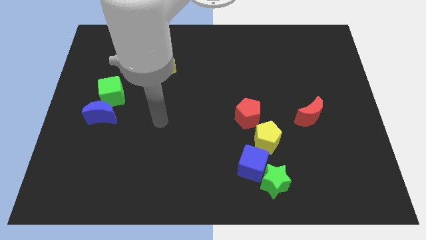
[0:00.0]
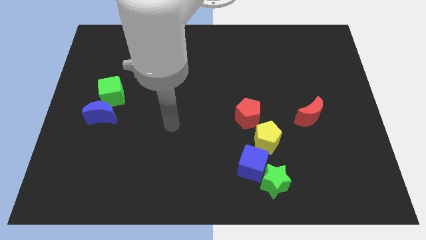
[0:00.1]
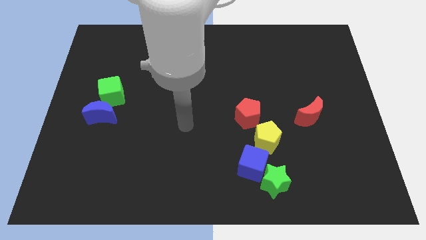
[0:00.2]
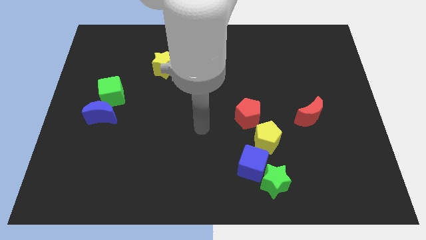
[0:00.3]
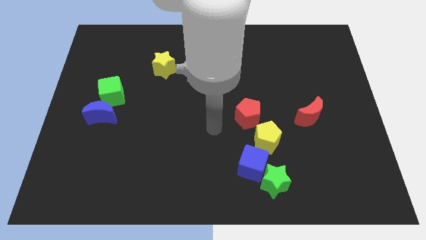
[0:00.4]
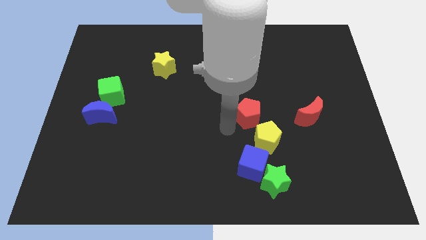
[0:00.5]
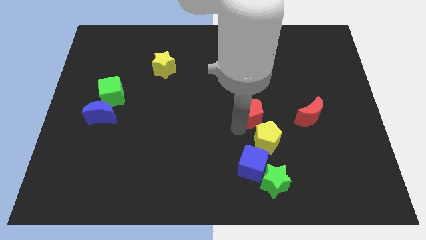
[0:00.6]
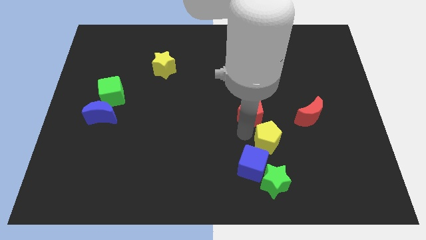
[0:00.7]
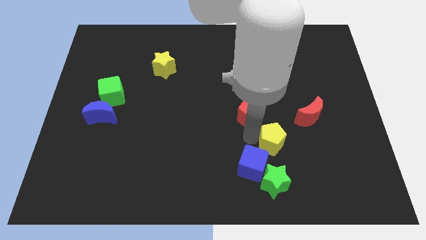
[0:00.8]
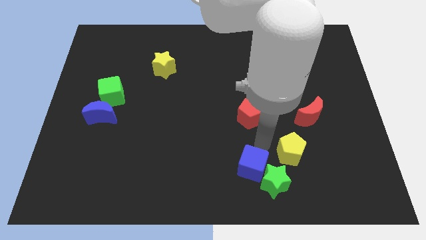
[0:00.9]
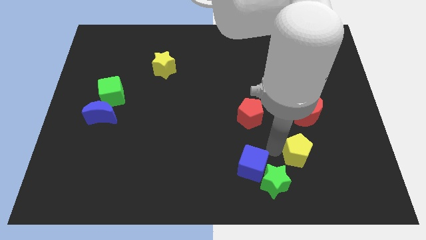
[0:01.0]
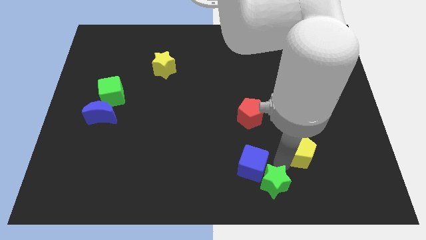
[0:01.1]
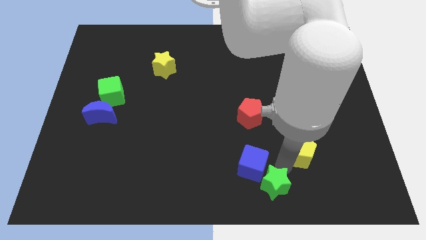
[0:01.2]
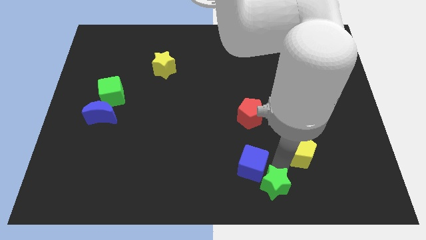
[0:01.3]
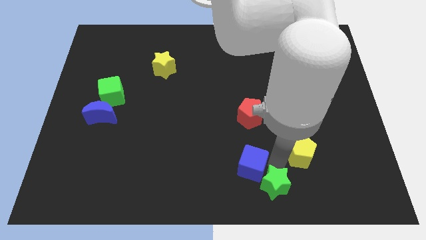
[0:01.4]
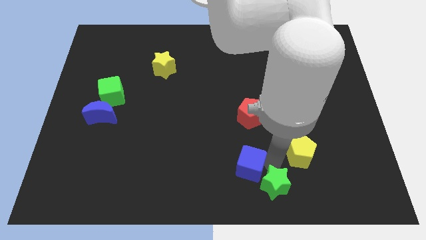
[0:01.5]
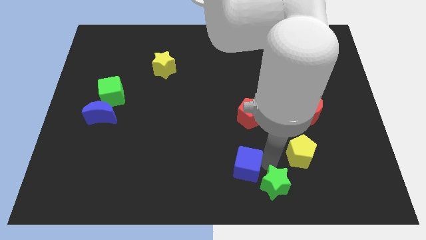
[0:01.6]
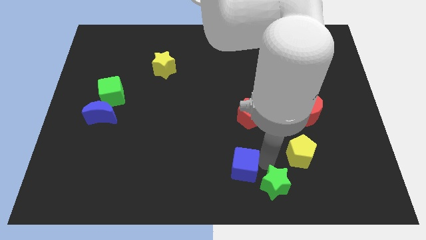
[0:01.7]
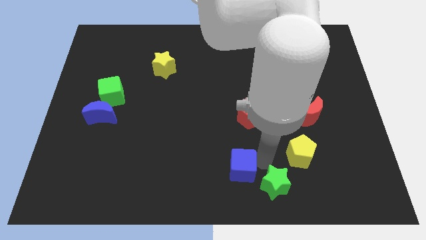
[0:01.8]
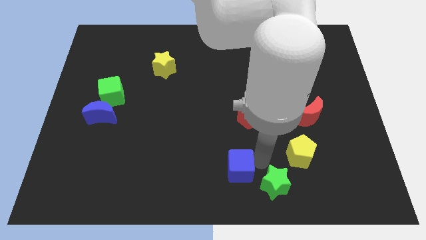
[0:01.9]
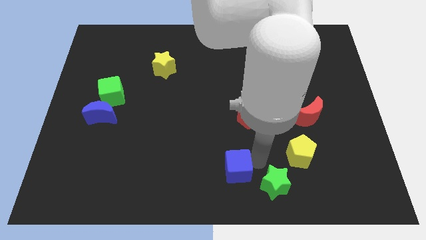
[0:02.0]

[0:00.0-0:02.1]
separate the blue cube from the green star and yellow pentagon

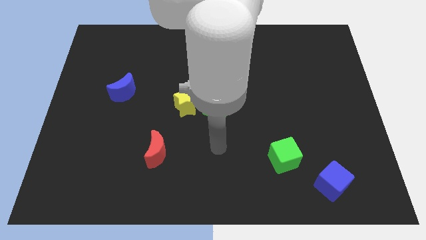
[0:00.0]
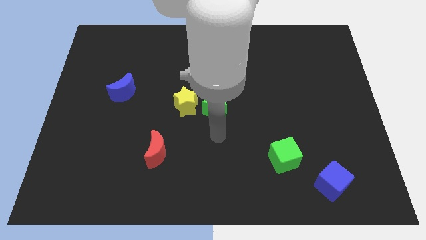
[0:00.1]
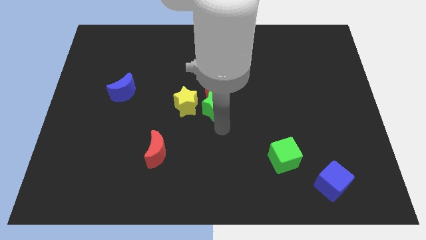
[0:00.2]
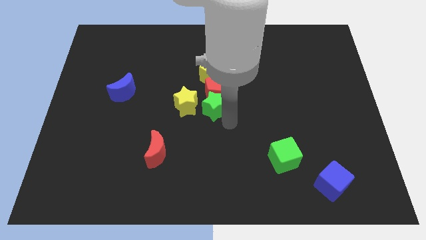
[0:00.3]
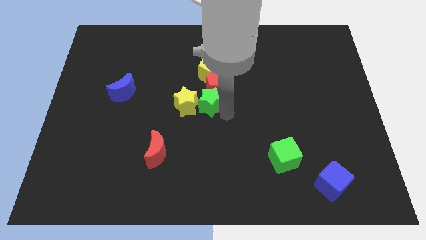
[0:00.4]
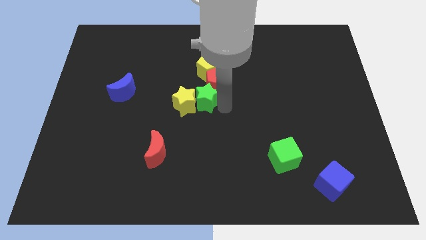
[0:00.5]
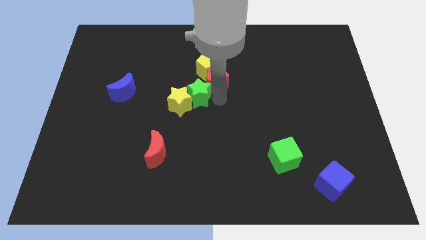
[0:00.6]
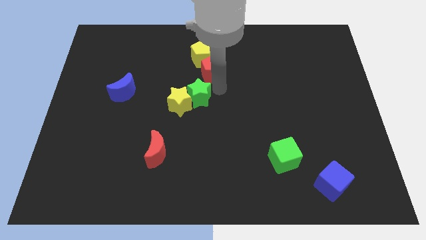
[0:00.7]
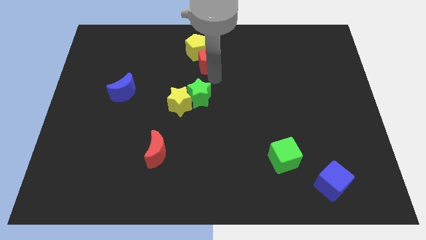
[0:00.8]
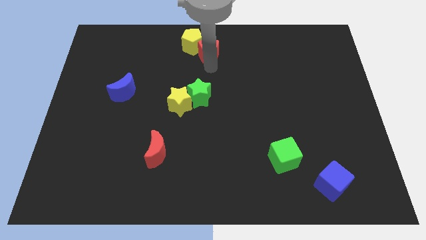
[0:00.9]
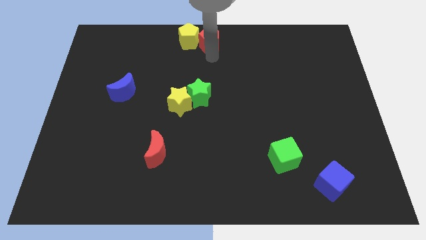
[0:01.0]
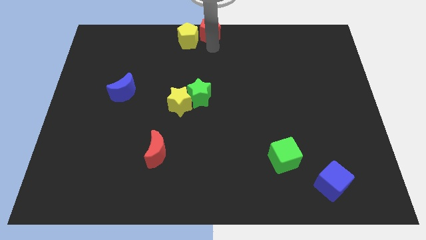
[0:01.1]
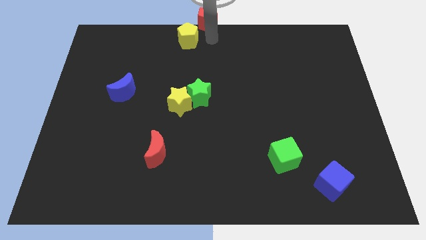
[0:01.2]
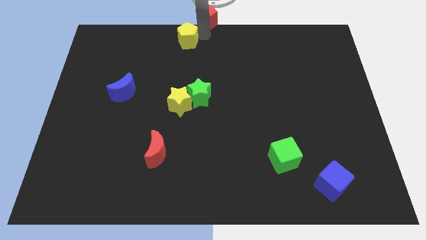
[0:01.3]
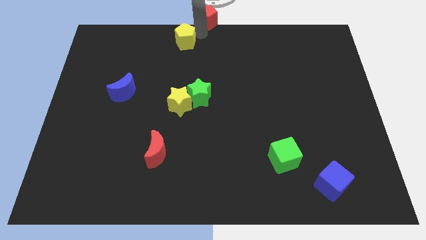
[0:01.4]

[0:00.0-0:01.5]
pull the yellow pentagon apart from the red pentagon

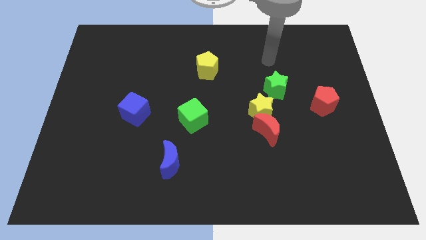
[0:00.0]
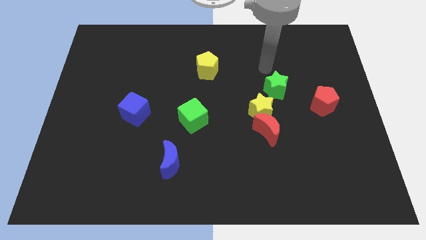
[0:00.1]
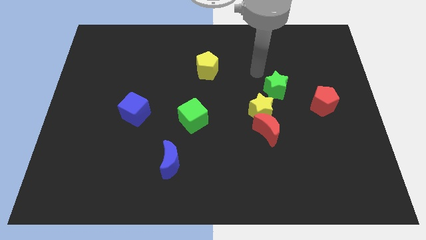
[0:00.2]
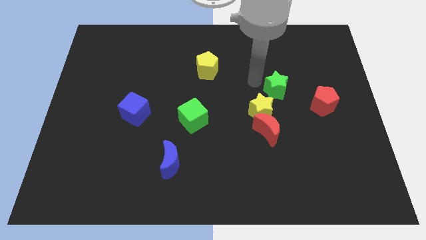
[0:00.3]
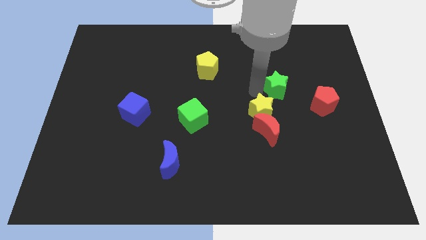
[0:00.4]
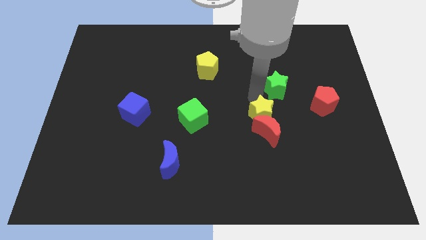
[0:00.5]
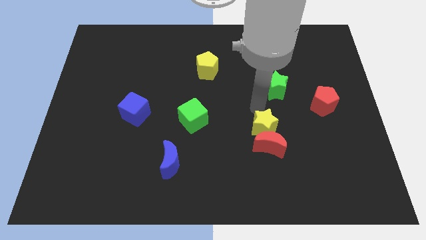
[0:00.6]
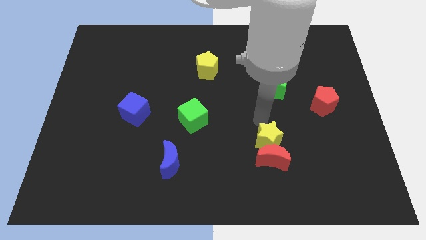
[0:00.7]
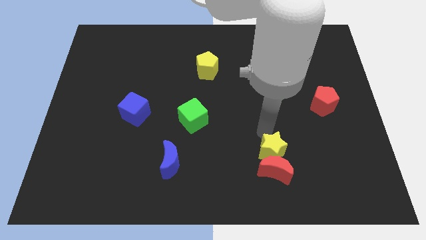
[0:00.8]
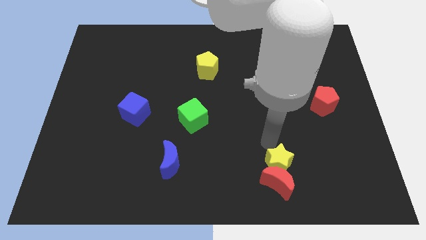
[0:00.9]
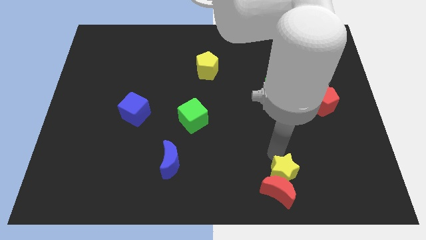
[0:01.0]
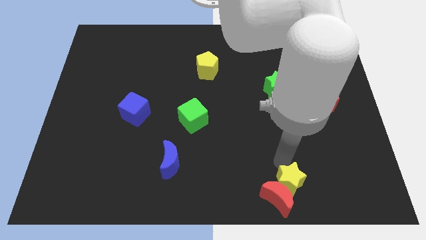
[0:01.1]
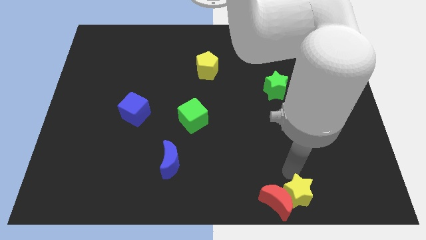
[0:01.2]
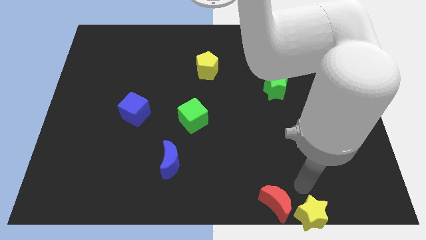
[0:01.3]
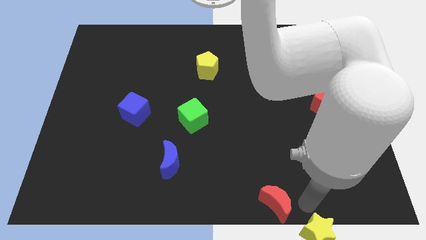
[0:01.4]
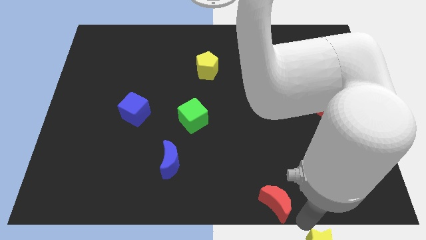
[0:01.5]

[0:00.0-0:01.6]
separate the red moon from the yellow star

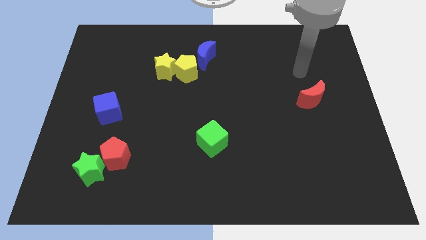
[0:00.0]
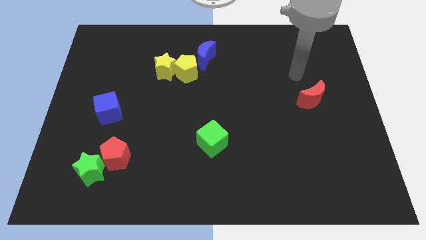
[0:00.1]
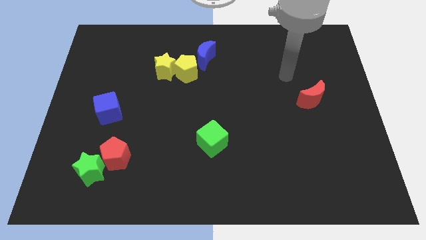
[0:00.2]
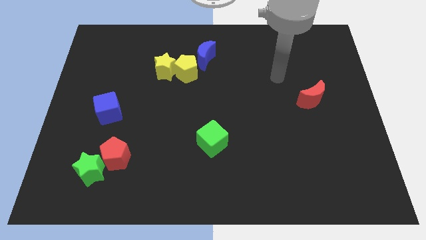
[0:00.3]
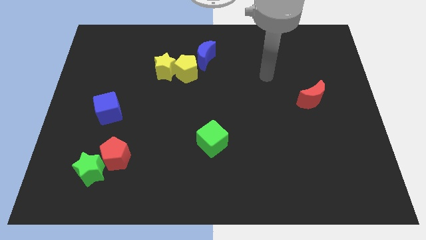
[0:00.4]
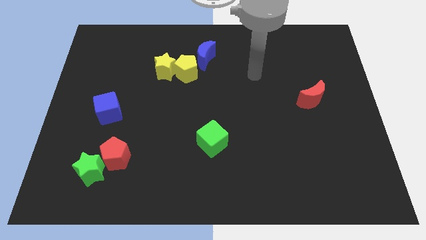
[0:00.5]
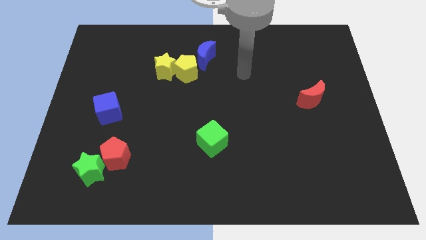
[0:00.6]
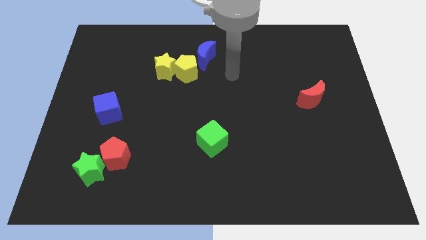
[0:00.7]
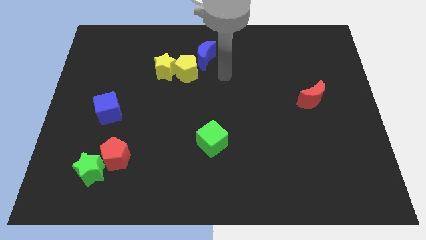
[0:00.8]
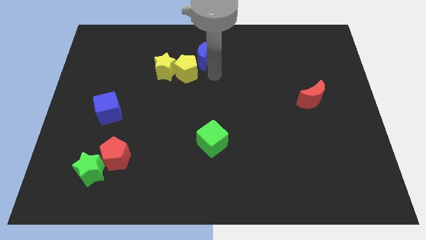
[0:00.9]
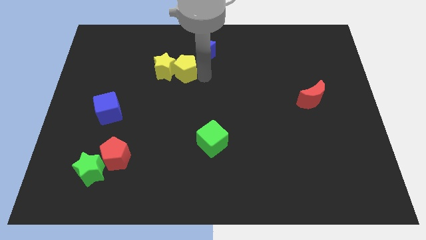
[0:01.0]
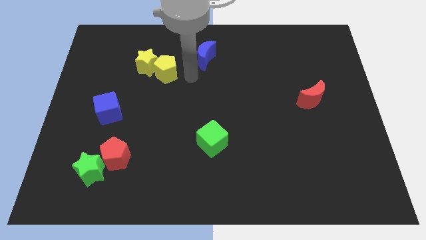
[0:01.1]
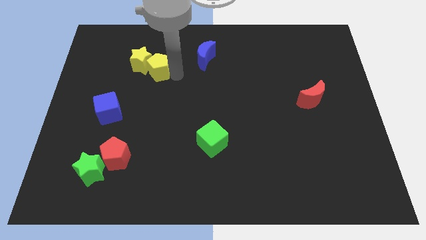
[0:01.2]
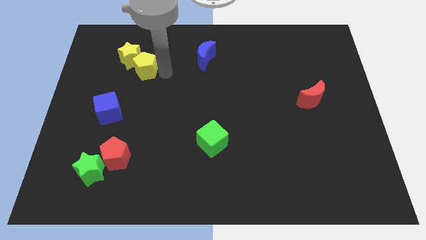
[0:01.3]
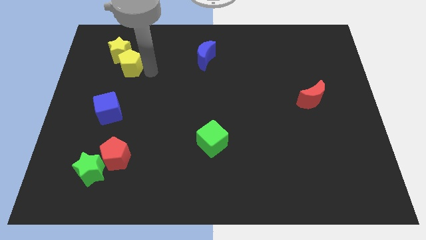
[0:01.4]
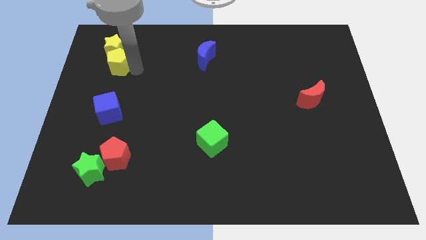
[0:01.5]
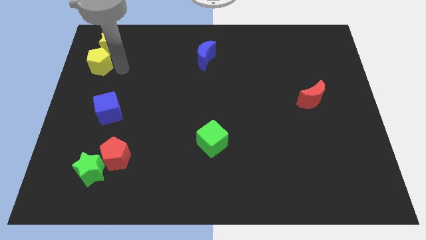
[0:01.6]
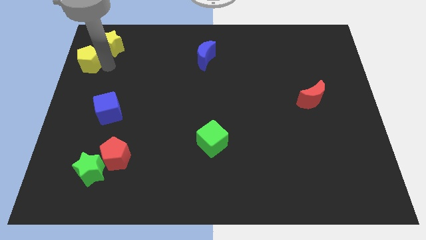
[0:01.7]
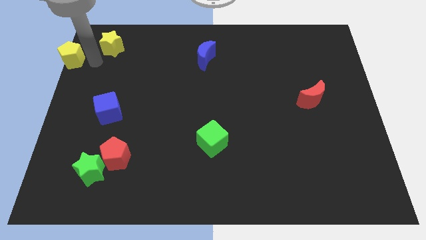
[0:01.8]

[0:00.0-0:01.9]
pull the yellow star apart from the yellow pentagon

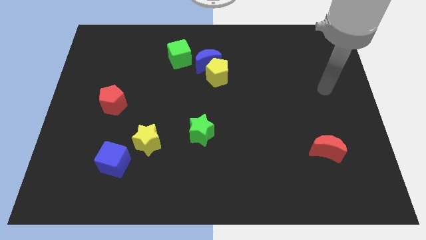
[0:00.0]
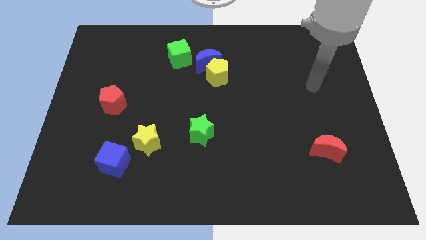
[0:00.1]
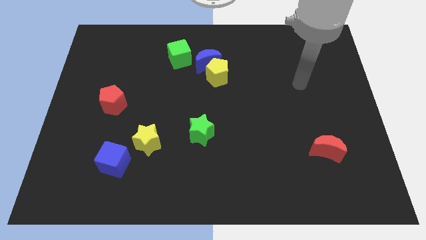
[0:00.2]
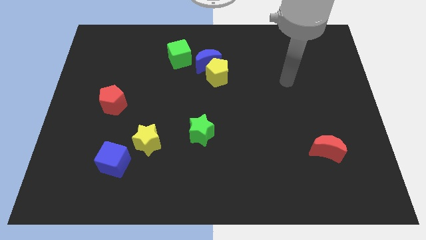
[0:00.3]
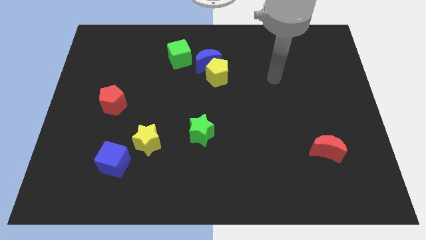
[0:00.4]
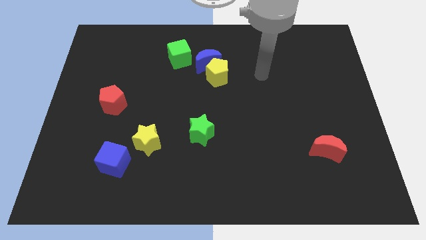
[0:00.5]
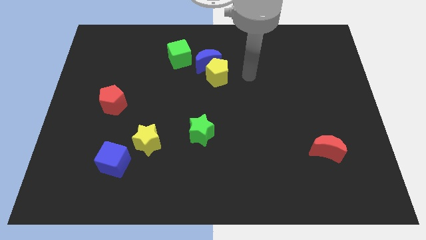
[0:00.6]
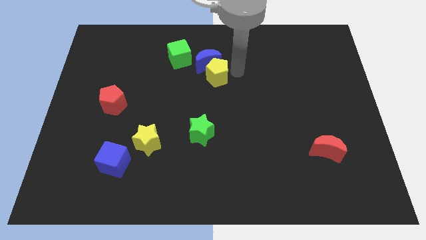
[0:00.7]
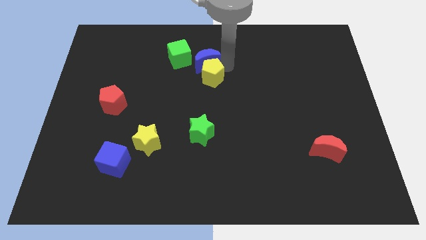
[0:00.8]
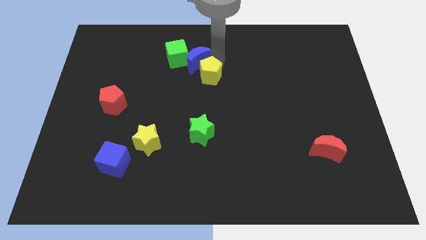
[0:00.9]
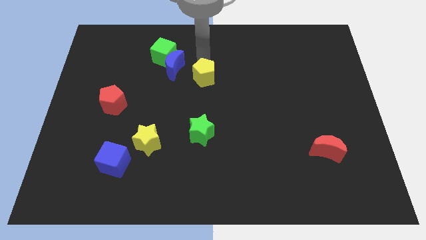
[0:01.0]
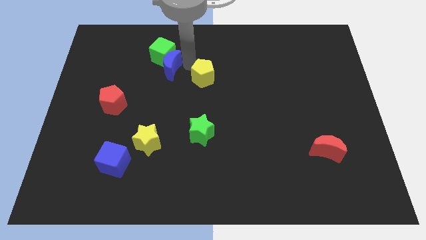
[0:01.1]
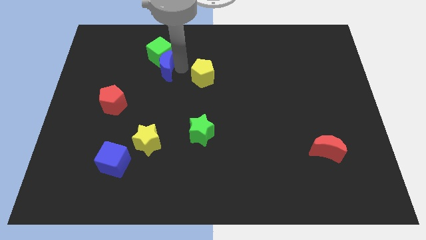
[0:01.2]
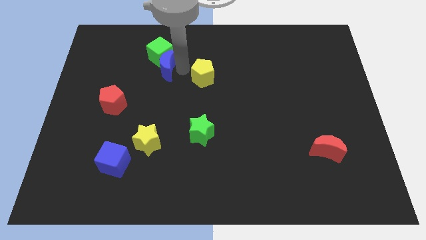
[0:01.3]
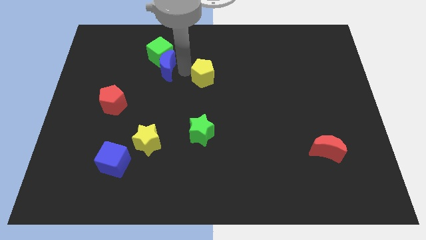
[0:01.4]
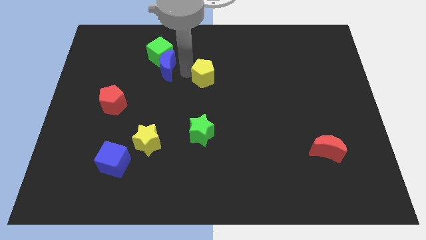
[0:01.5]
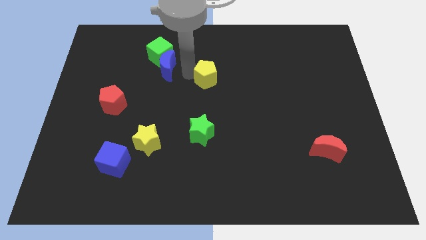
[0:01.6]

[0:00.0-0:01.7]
separate the yellow pentagon from the blue moon

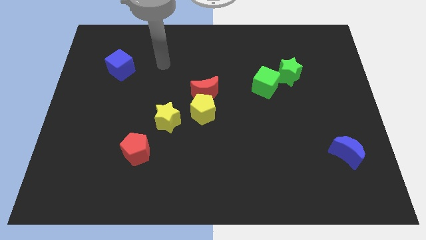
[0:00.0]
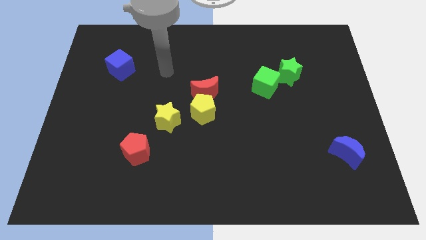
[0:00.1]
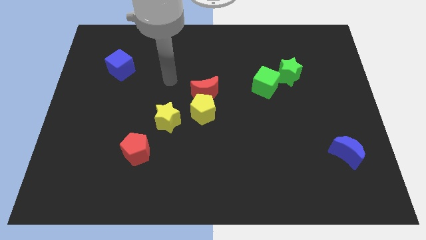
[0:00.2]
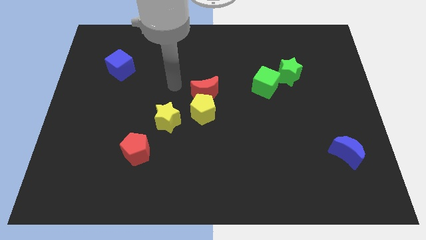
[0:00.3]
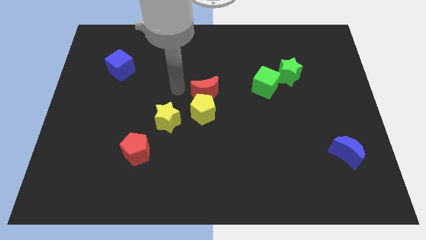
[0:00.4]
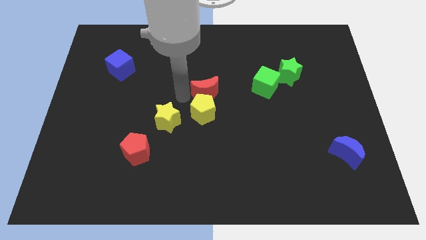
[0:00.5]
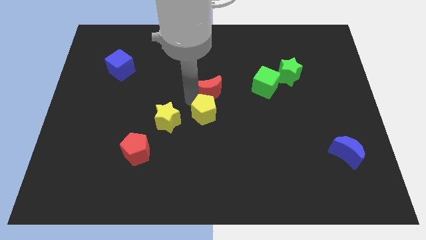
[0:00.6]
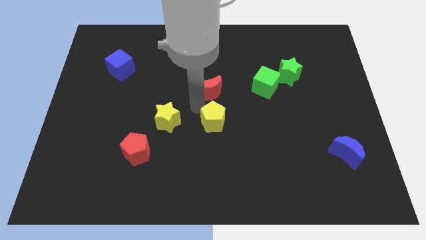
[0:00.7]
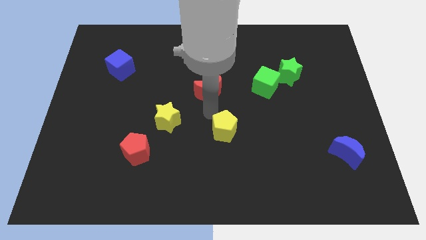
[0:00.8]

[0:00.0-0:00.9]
separate the red moon from the yellow pentagon
